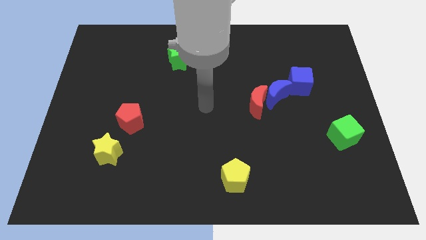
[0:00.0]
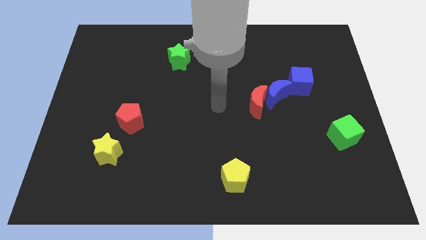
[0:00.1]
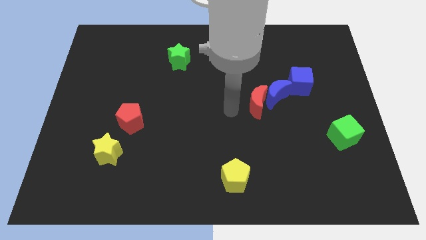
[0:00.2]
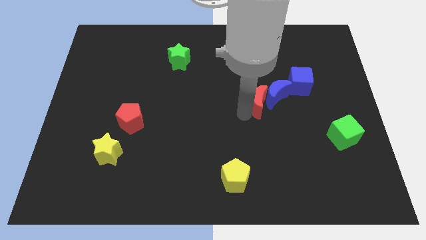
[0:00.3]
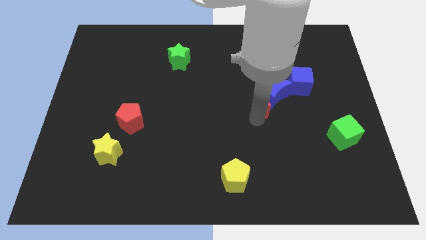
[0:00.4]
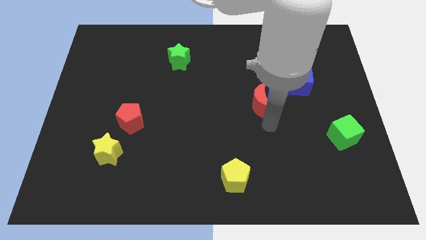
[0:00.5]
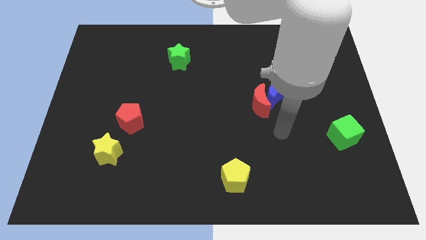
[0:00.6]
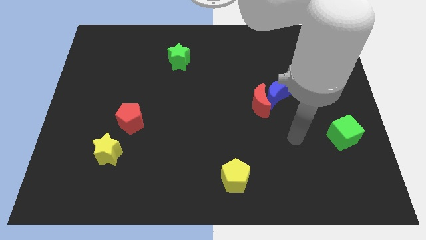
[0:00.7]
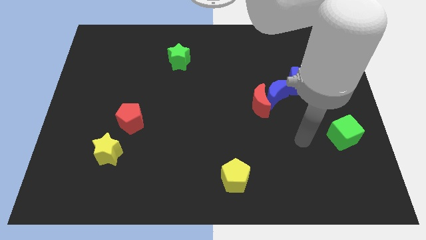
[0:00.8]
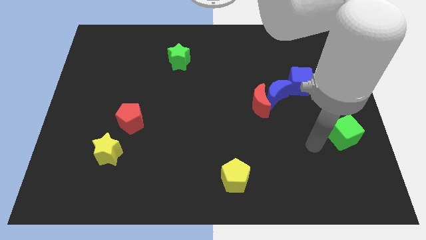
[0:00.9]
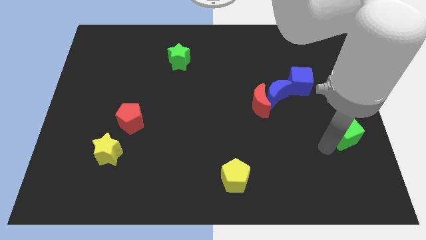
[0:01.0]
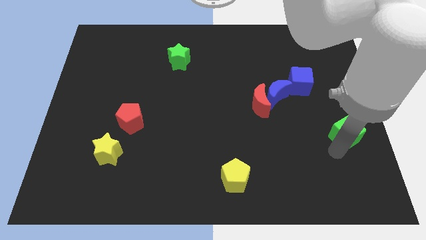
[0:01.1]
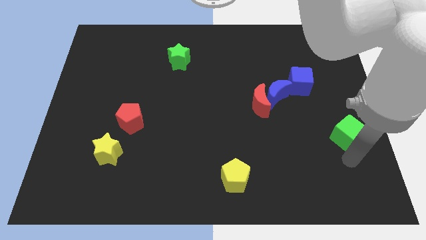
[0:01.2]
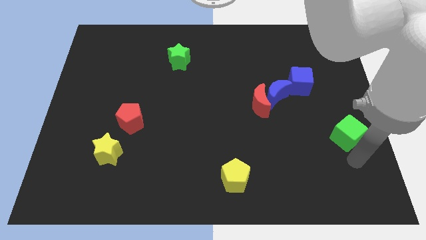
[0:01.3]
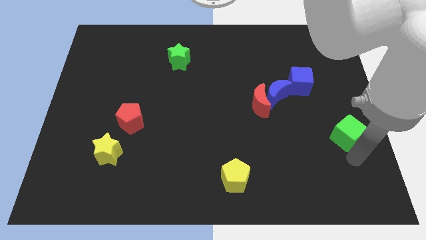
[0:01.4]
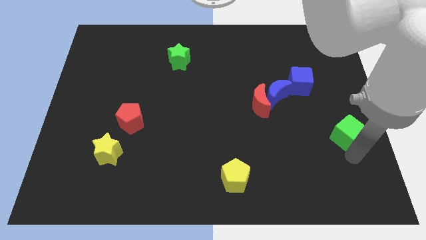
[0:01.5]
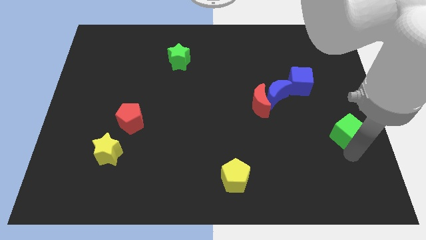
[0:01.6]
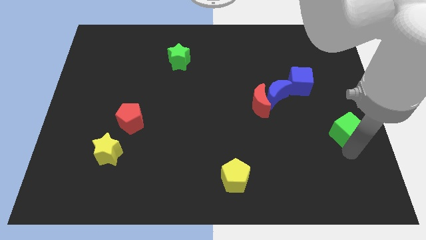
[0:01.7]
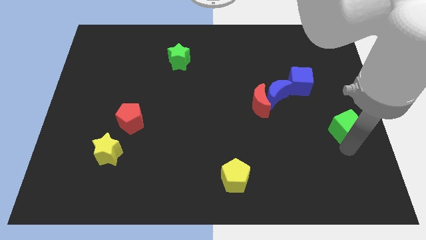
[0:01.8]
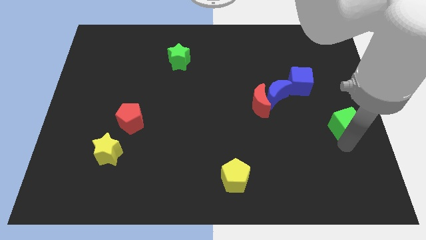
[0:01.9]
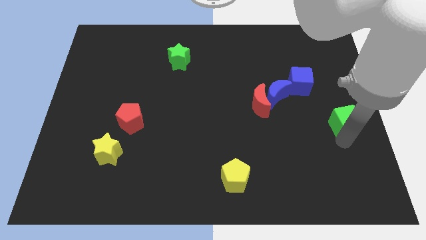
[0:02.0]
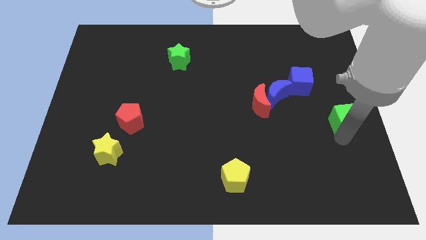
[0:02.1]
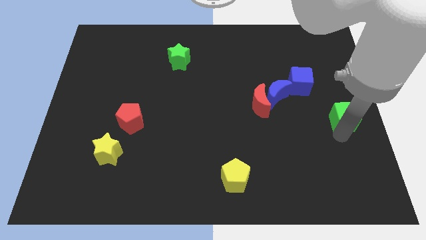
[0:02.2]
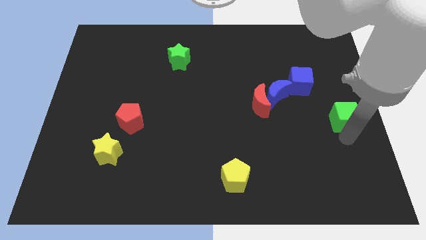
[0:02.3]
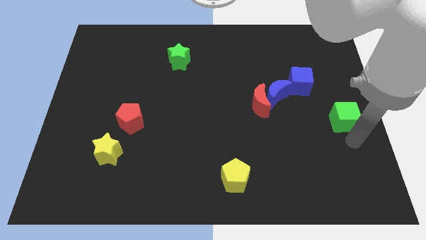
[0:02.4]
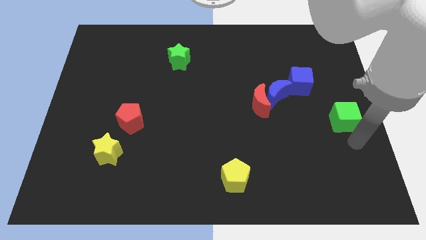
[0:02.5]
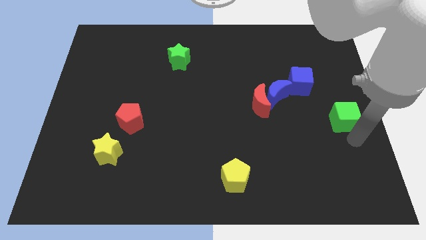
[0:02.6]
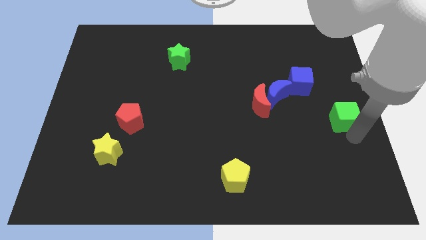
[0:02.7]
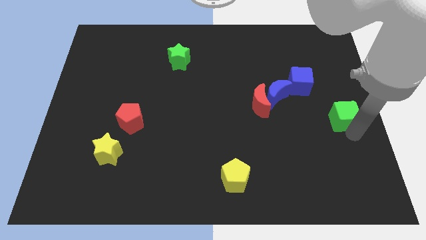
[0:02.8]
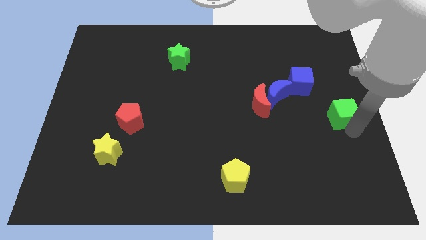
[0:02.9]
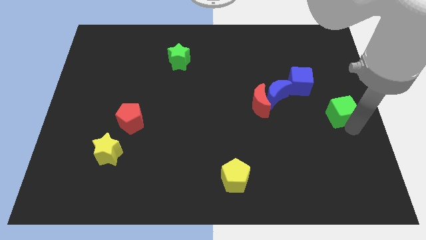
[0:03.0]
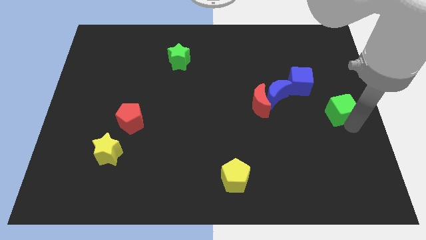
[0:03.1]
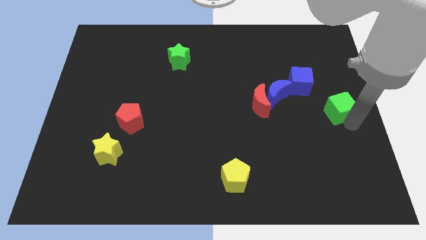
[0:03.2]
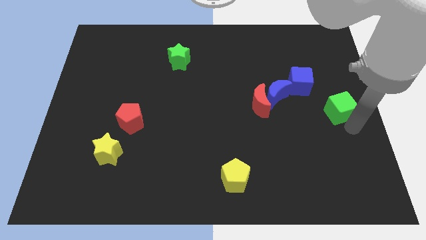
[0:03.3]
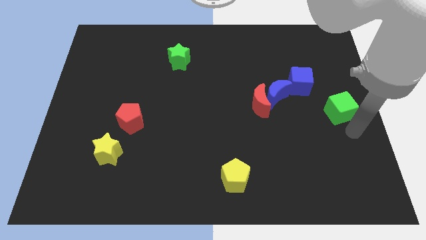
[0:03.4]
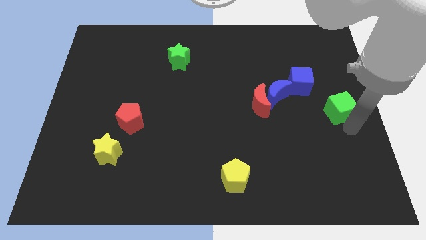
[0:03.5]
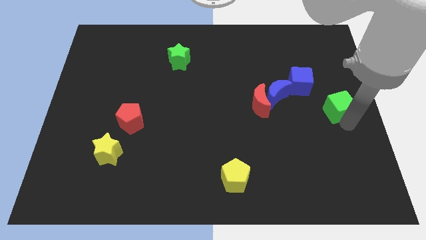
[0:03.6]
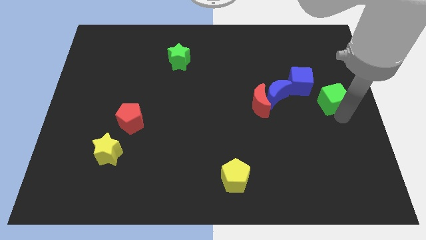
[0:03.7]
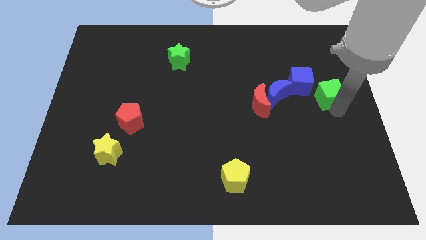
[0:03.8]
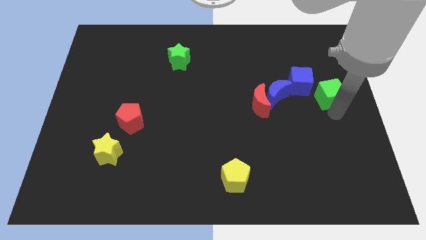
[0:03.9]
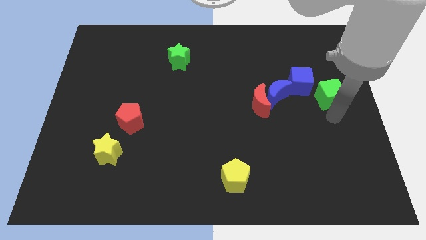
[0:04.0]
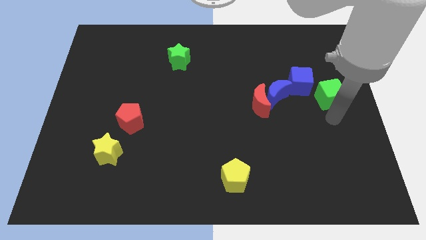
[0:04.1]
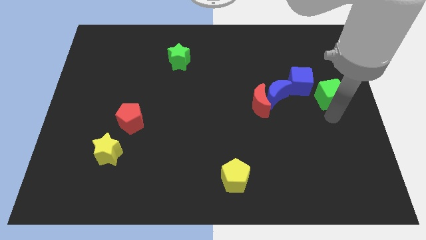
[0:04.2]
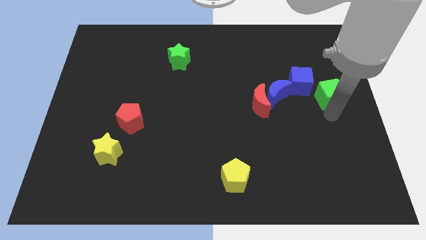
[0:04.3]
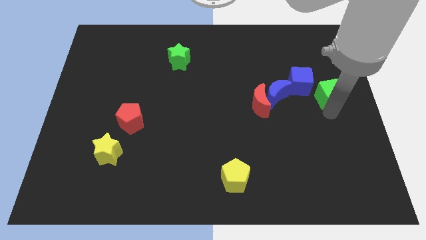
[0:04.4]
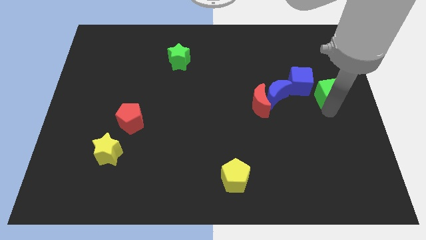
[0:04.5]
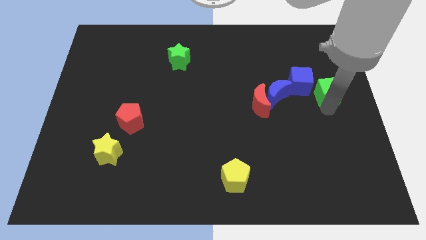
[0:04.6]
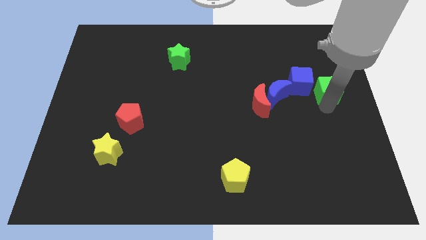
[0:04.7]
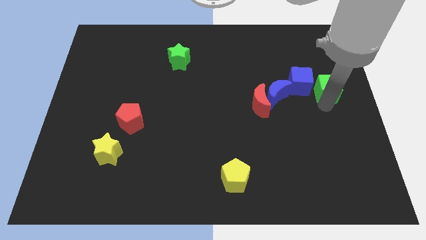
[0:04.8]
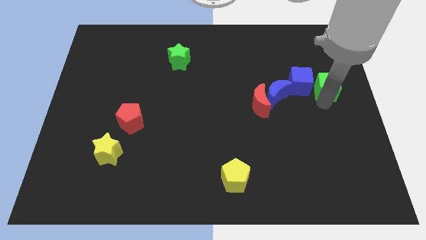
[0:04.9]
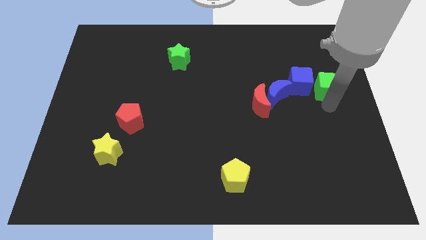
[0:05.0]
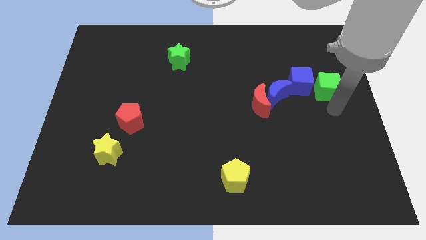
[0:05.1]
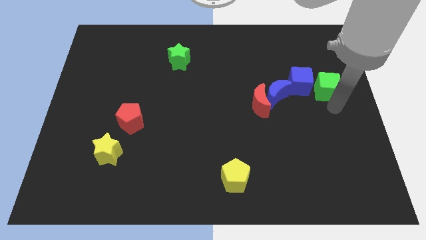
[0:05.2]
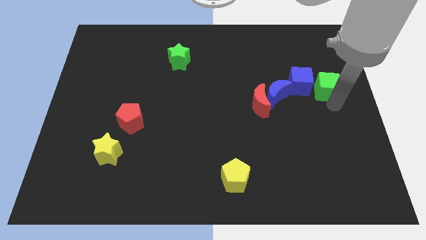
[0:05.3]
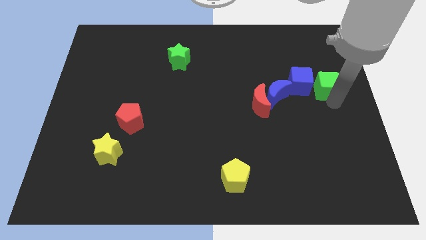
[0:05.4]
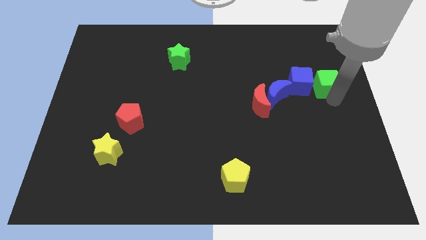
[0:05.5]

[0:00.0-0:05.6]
move the green cube to the top right side of the blue cube

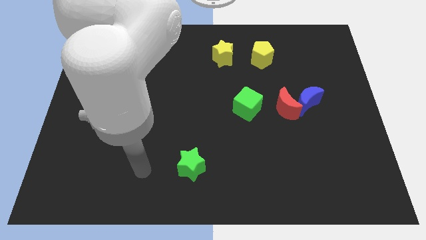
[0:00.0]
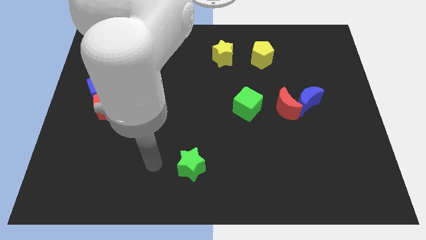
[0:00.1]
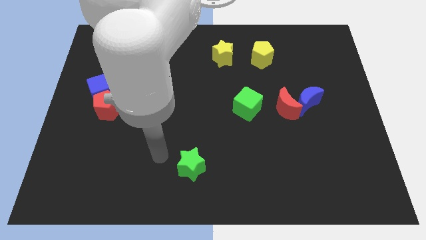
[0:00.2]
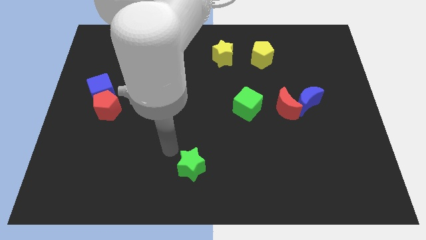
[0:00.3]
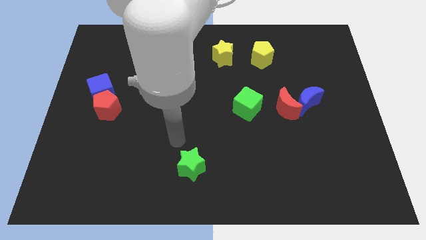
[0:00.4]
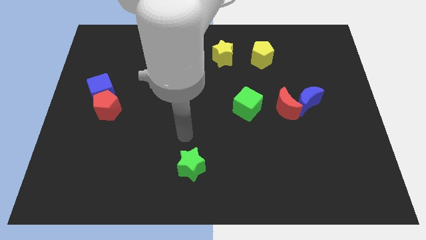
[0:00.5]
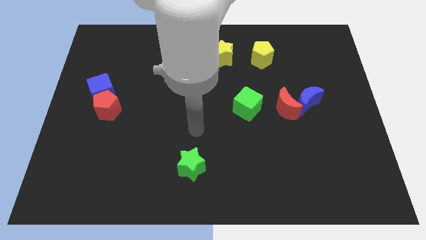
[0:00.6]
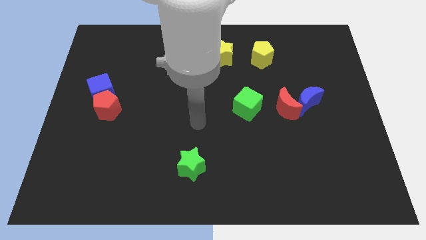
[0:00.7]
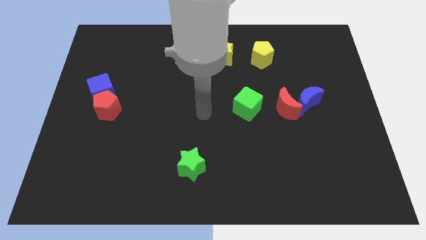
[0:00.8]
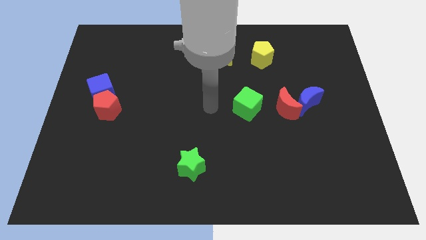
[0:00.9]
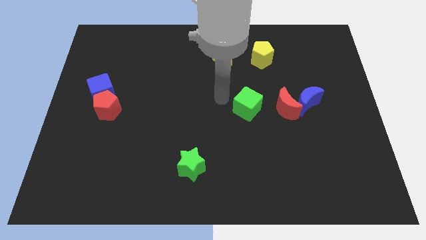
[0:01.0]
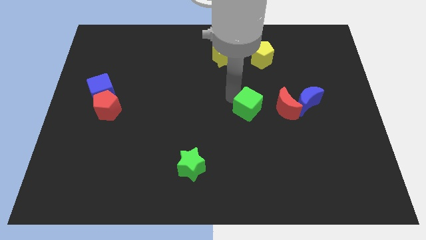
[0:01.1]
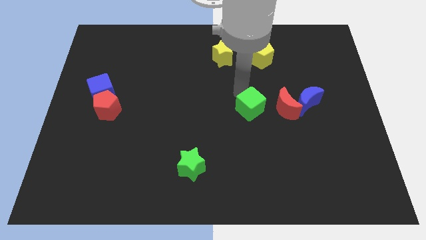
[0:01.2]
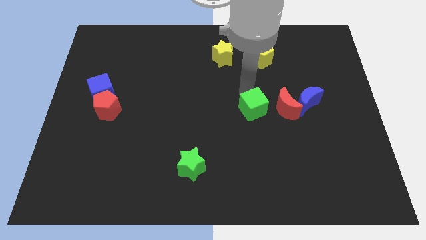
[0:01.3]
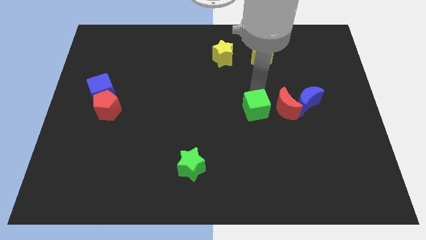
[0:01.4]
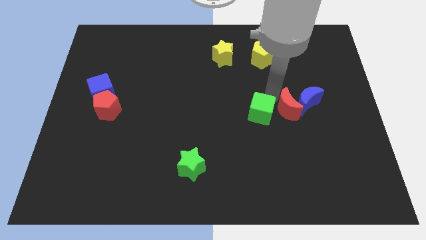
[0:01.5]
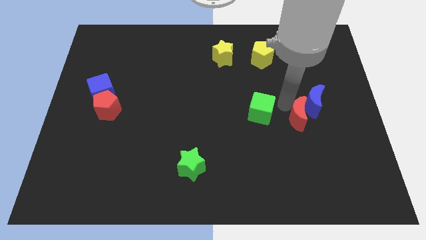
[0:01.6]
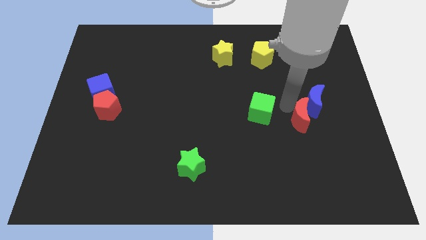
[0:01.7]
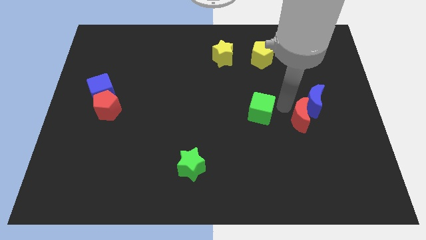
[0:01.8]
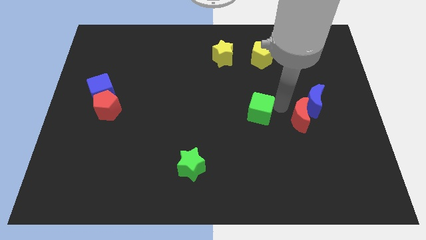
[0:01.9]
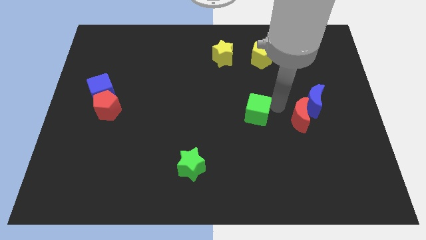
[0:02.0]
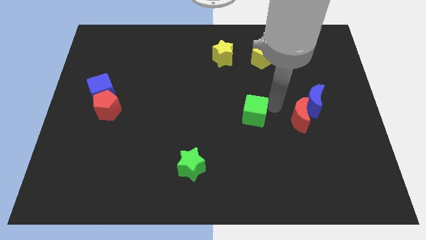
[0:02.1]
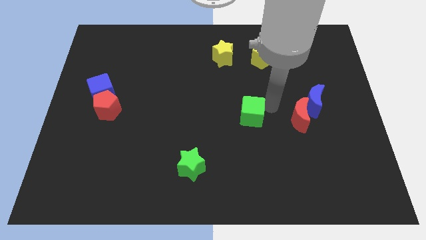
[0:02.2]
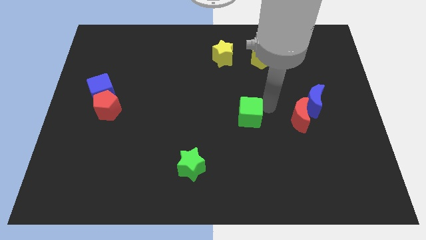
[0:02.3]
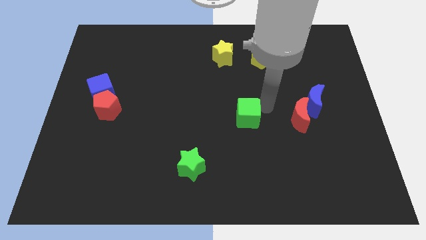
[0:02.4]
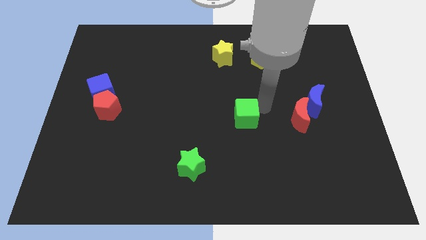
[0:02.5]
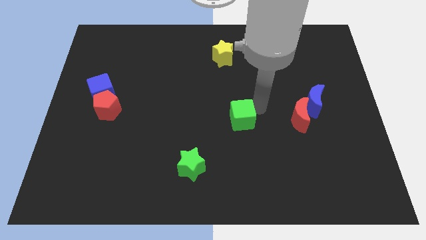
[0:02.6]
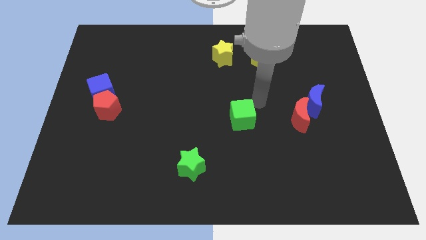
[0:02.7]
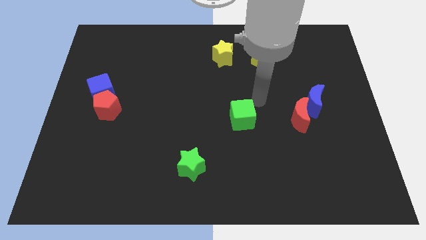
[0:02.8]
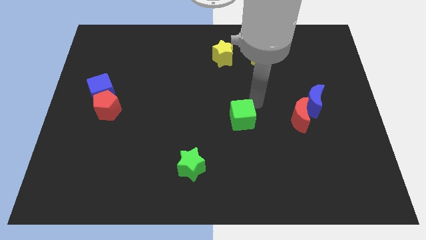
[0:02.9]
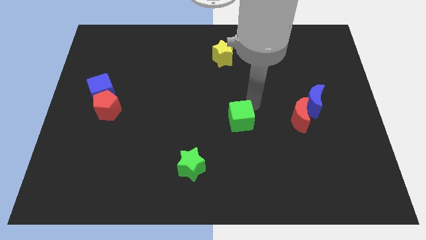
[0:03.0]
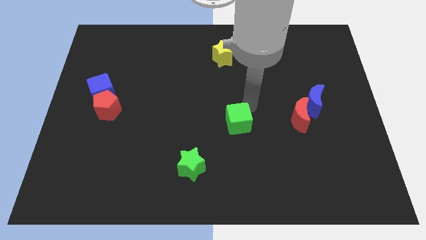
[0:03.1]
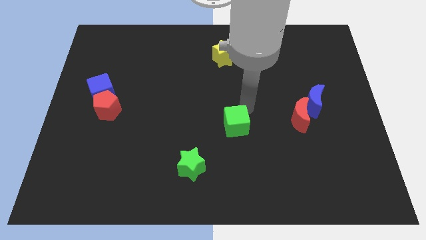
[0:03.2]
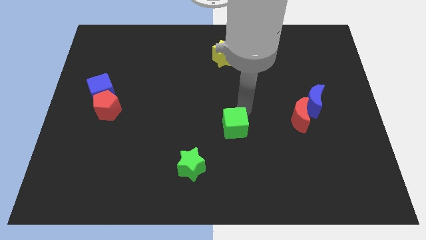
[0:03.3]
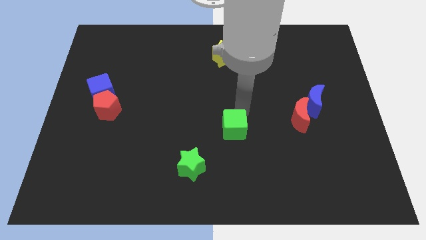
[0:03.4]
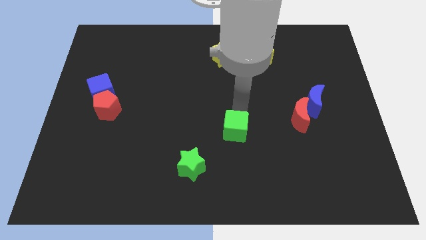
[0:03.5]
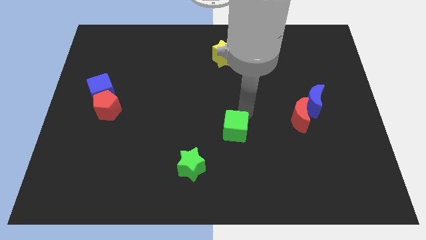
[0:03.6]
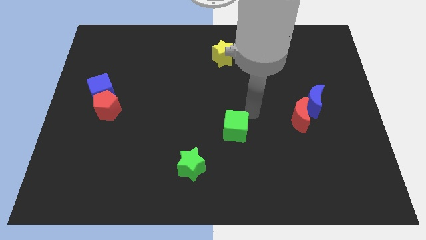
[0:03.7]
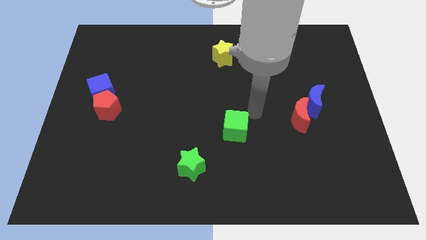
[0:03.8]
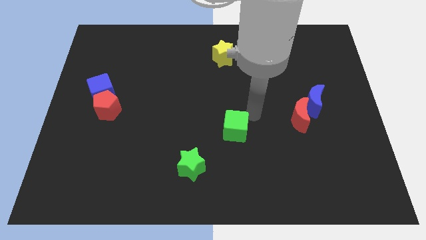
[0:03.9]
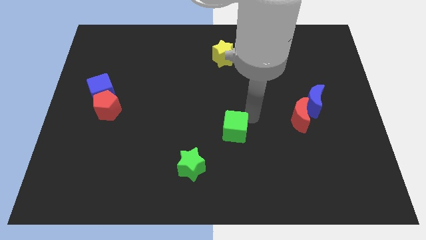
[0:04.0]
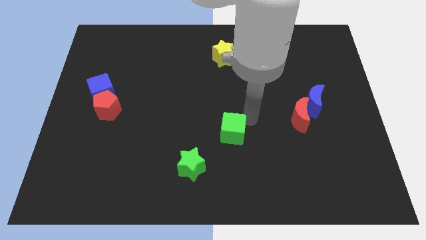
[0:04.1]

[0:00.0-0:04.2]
move the green cube diagonally up and to the right of the green star
